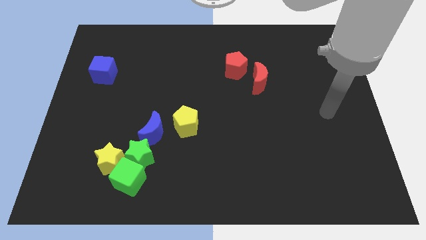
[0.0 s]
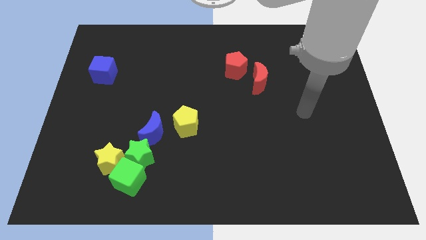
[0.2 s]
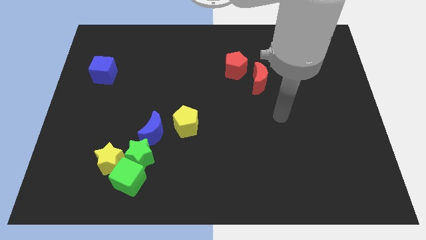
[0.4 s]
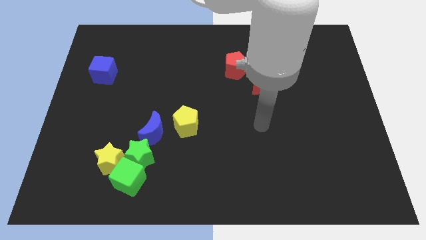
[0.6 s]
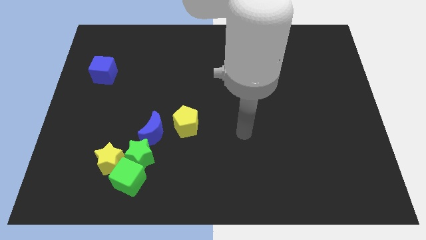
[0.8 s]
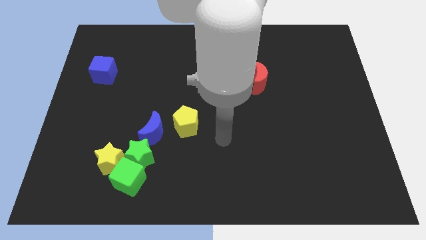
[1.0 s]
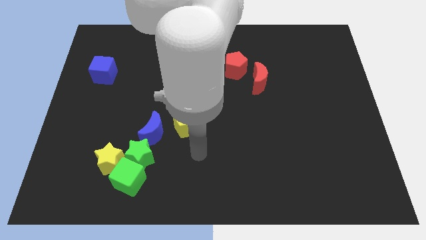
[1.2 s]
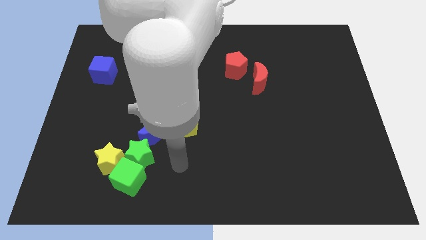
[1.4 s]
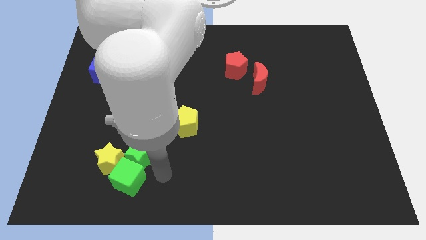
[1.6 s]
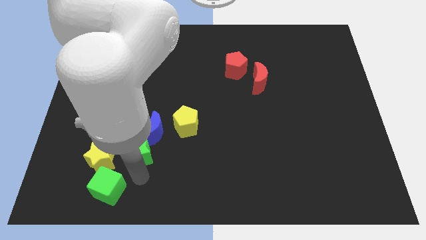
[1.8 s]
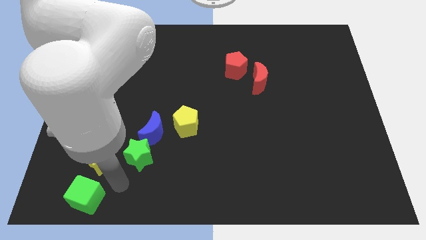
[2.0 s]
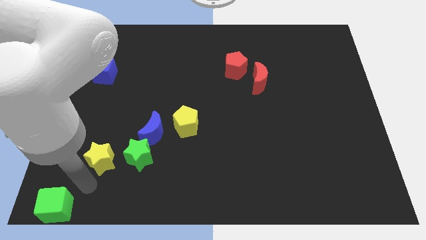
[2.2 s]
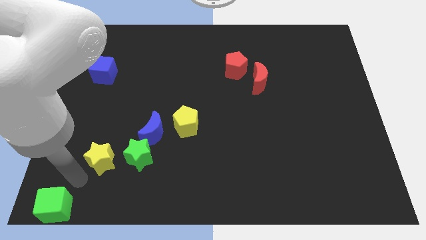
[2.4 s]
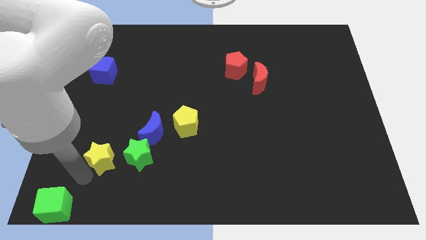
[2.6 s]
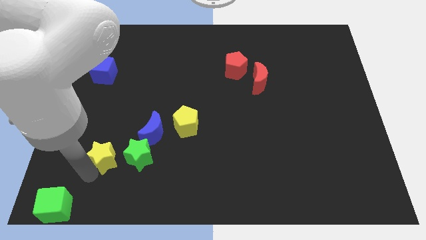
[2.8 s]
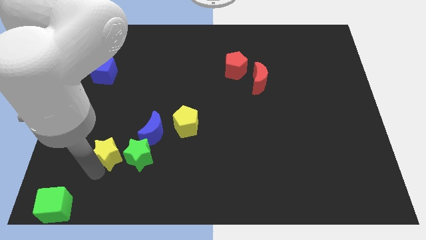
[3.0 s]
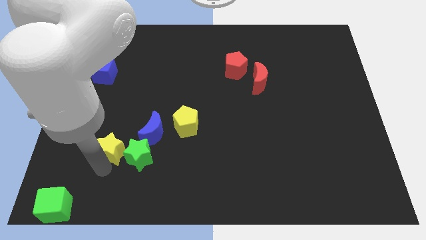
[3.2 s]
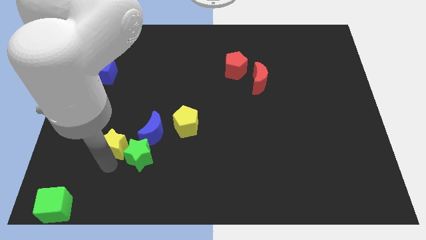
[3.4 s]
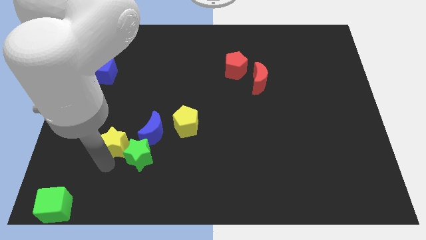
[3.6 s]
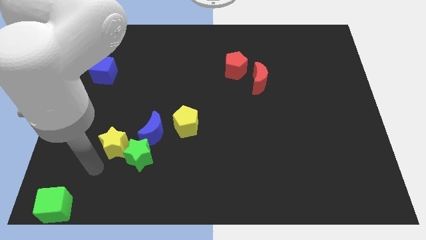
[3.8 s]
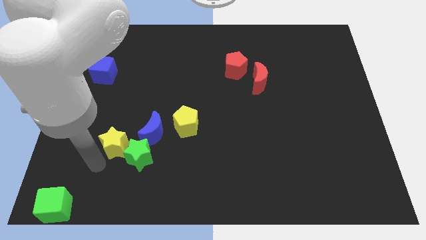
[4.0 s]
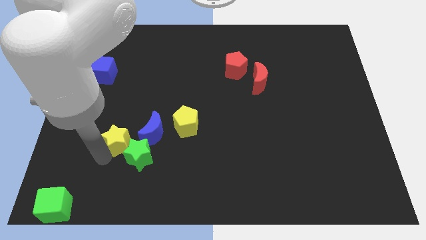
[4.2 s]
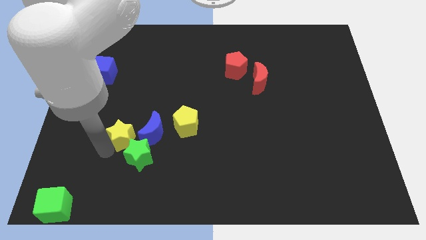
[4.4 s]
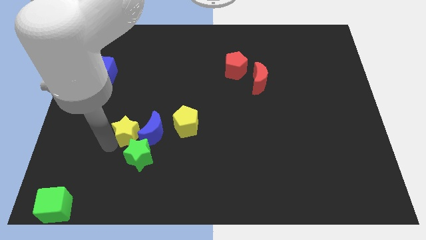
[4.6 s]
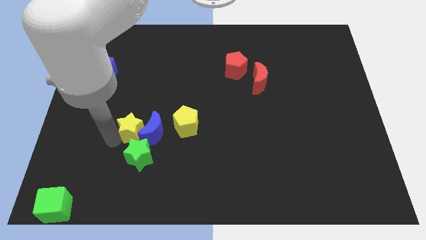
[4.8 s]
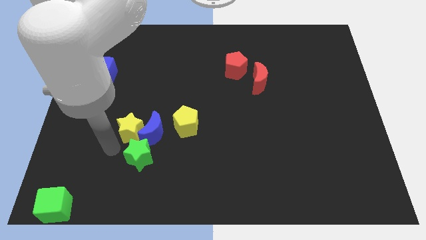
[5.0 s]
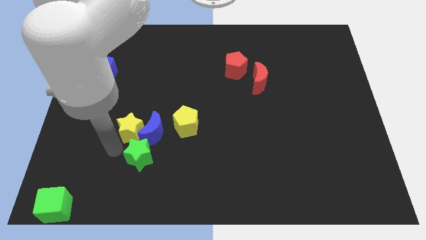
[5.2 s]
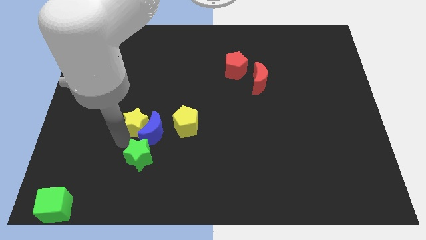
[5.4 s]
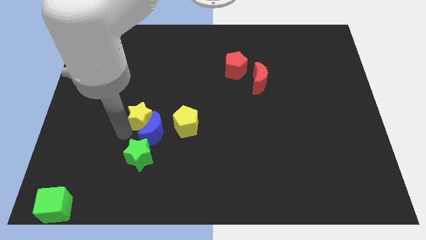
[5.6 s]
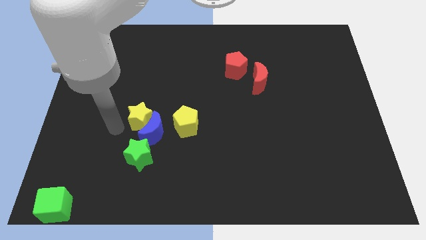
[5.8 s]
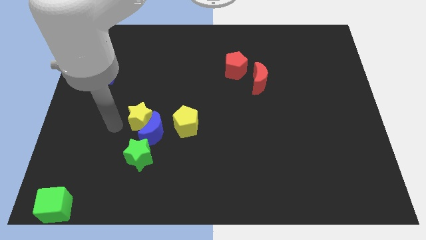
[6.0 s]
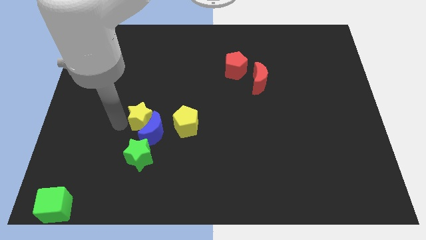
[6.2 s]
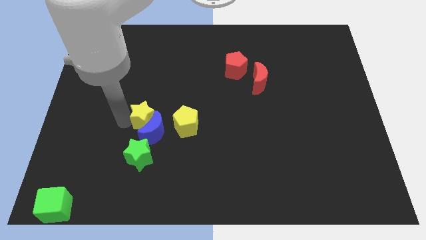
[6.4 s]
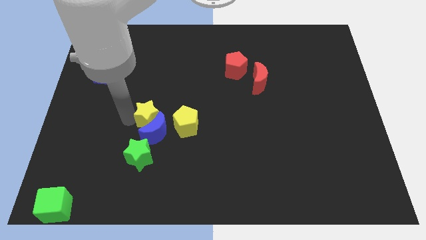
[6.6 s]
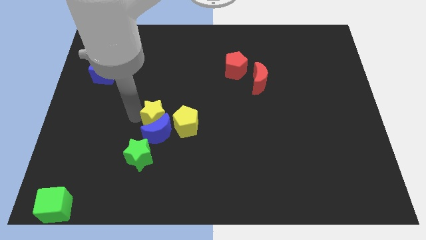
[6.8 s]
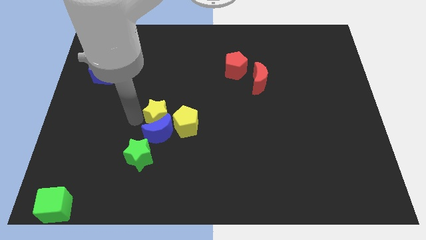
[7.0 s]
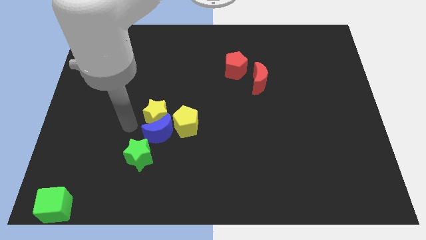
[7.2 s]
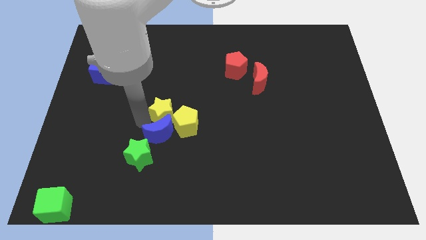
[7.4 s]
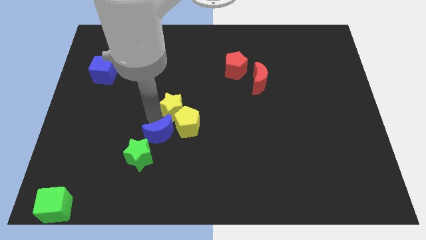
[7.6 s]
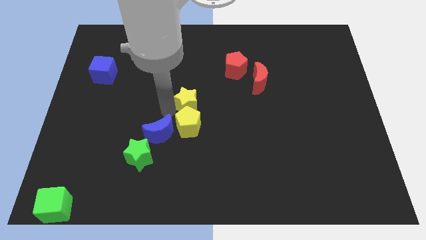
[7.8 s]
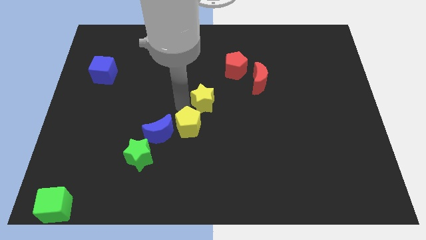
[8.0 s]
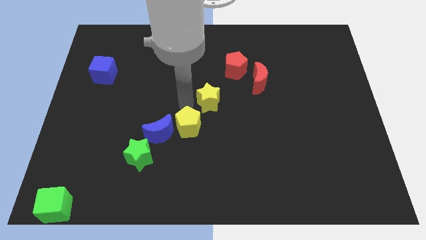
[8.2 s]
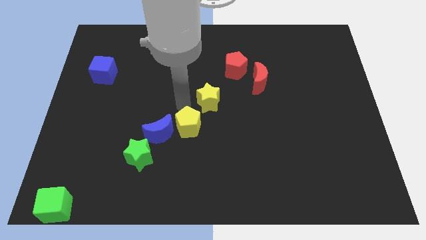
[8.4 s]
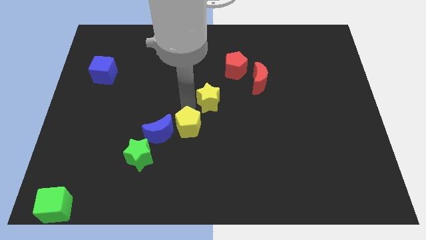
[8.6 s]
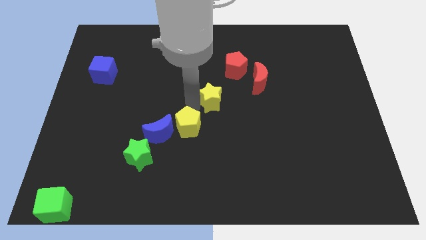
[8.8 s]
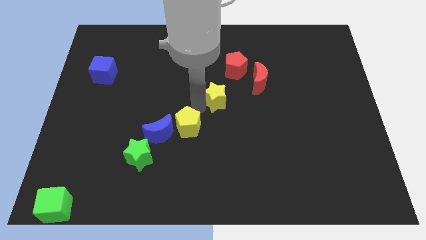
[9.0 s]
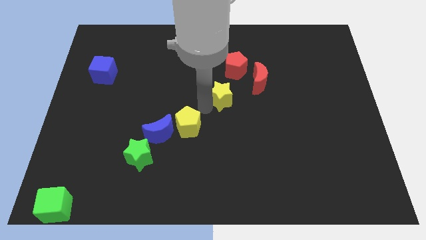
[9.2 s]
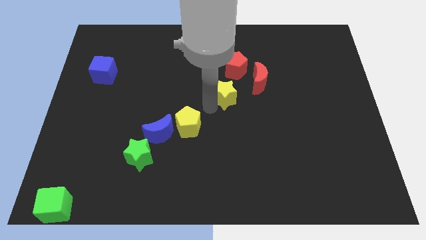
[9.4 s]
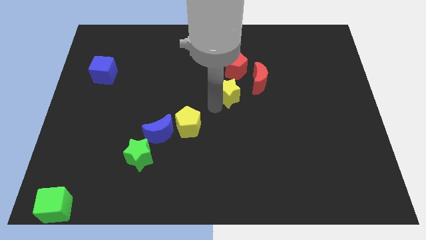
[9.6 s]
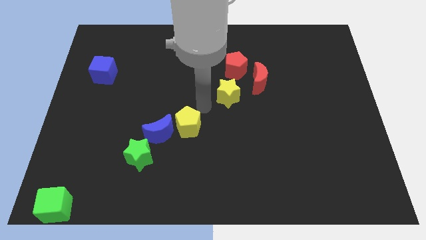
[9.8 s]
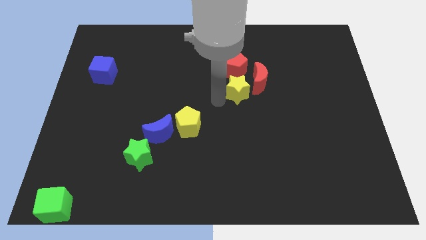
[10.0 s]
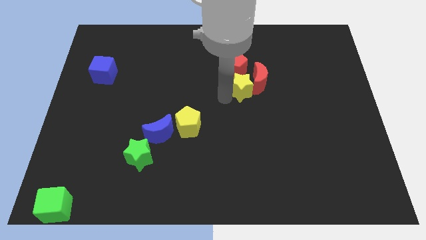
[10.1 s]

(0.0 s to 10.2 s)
put the yellow star close to the red moon

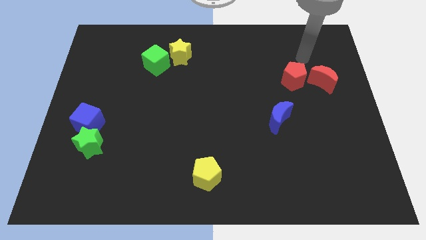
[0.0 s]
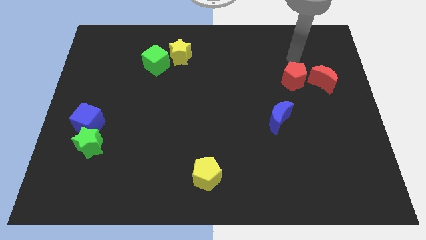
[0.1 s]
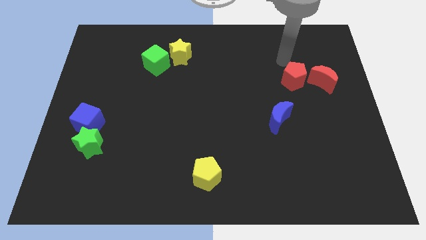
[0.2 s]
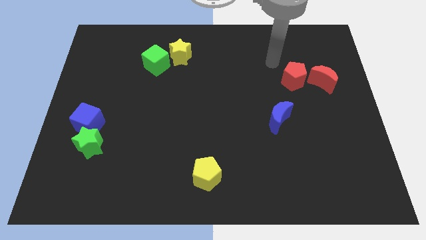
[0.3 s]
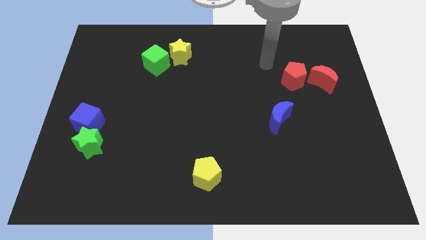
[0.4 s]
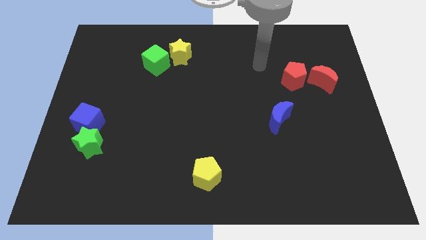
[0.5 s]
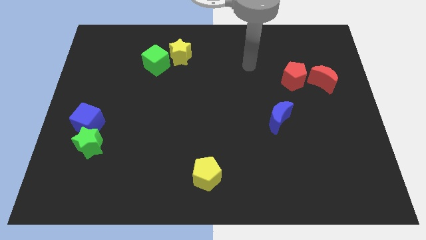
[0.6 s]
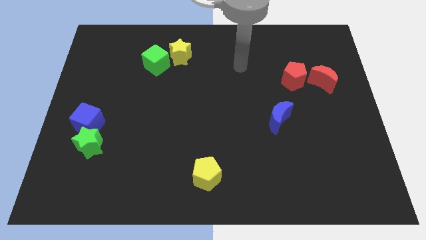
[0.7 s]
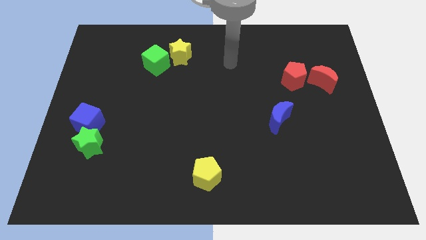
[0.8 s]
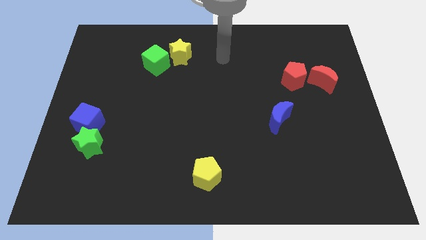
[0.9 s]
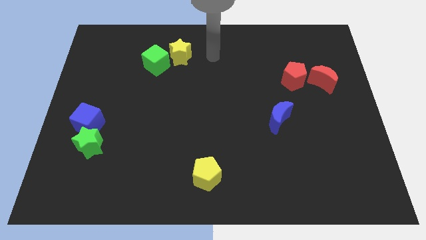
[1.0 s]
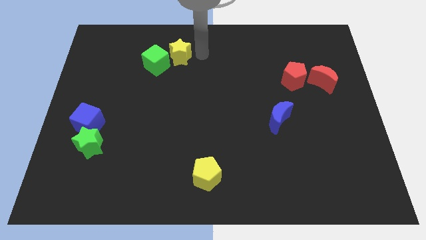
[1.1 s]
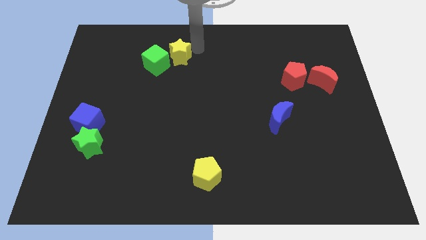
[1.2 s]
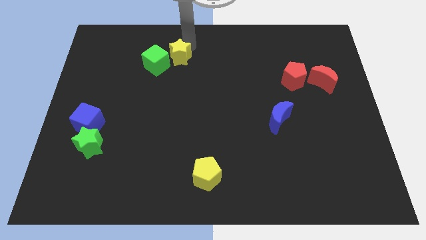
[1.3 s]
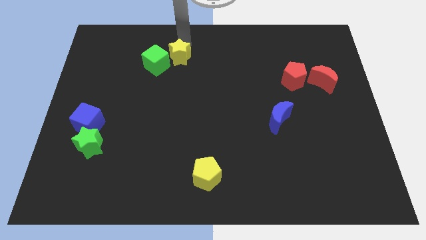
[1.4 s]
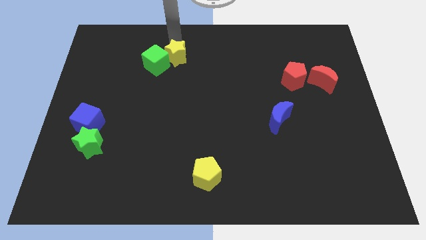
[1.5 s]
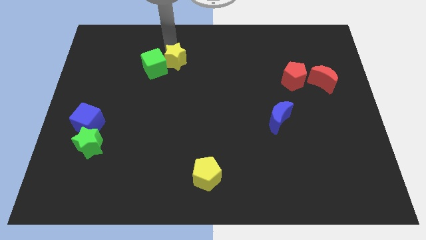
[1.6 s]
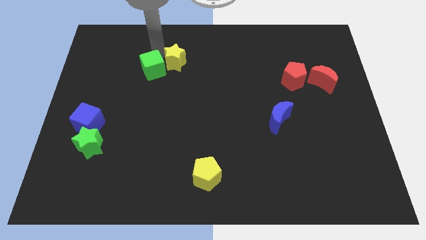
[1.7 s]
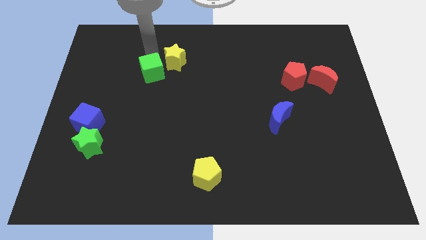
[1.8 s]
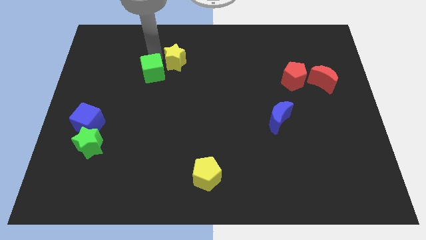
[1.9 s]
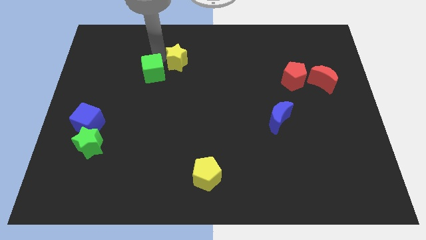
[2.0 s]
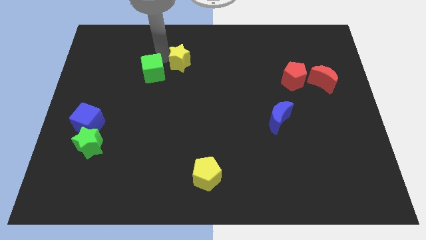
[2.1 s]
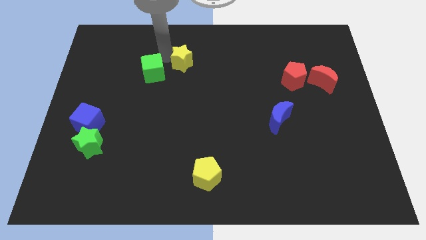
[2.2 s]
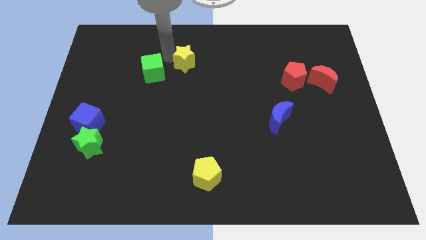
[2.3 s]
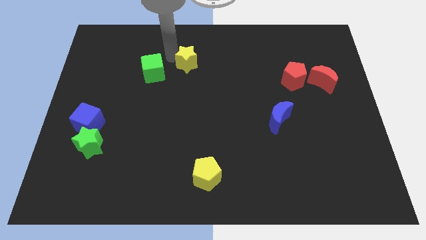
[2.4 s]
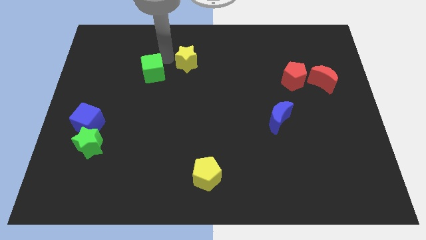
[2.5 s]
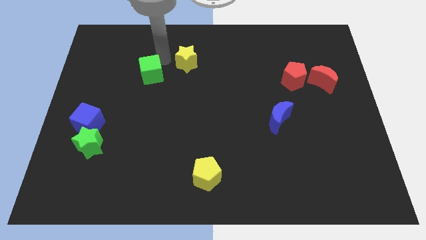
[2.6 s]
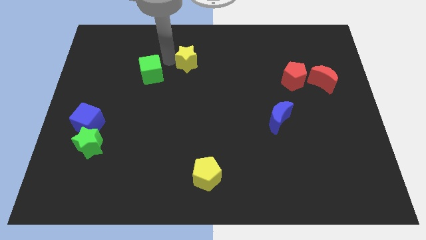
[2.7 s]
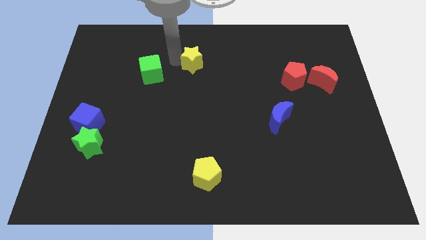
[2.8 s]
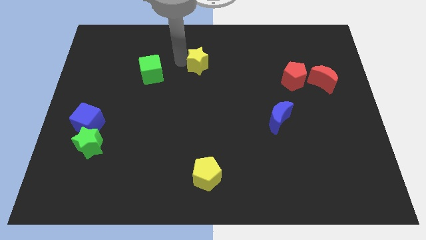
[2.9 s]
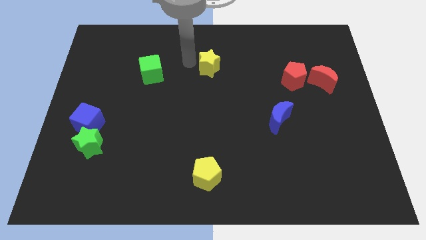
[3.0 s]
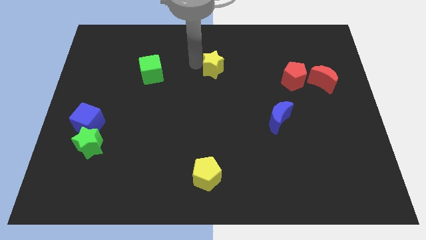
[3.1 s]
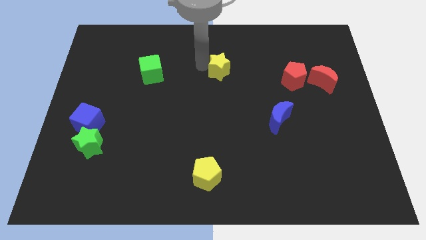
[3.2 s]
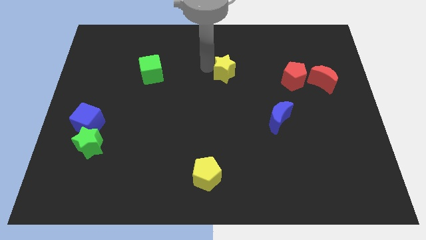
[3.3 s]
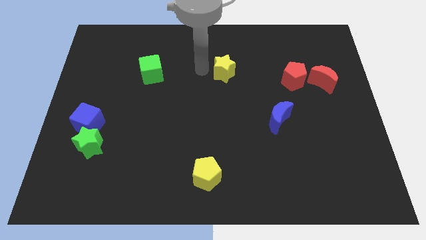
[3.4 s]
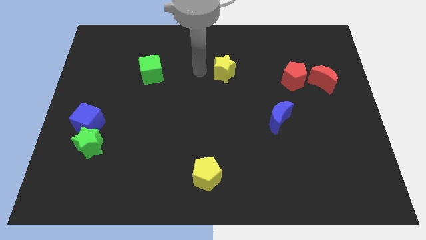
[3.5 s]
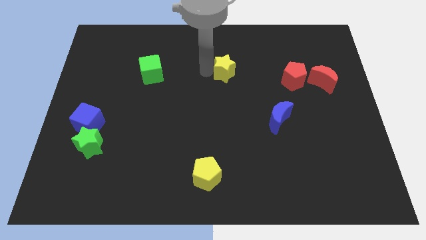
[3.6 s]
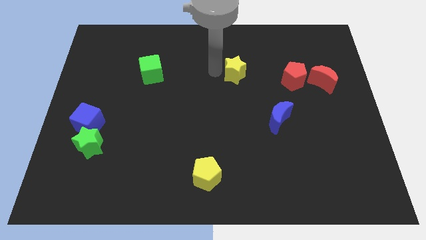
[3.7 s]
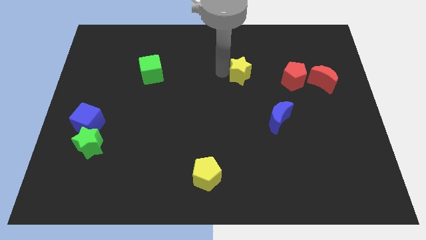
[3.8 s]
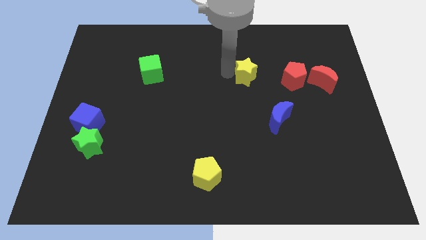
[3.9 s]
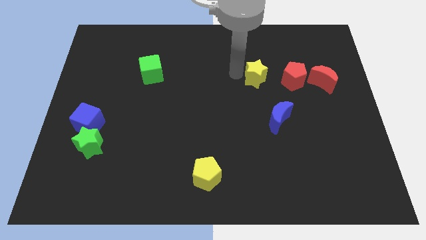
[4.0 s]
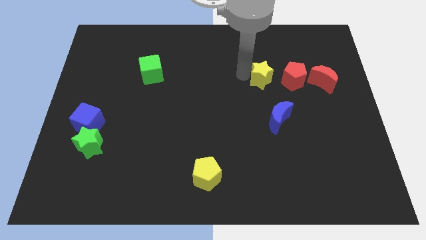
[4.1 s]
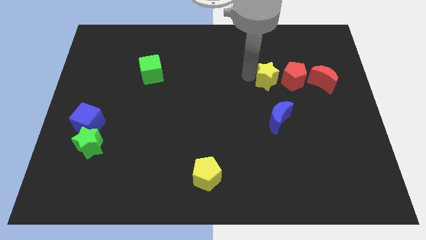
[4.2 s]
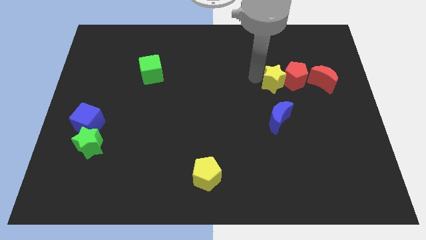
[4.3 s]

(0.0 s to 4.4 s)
move the yellow star close to the red pentagon
